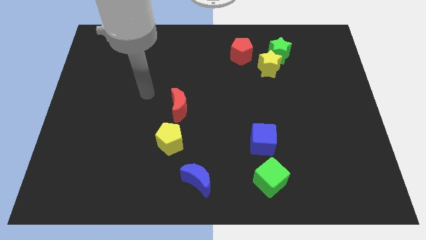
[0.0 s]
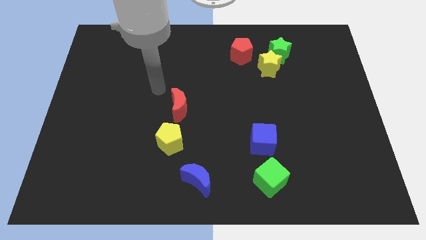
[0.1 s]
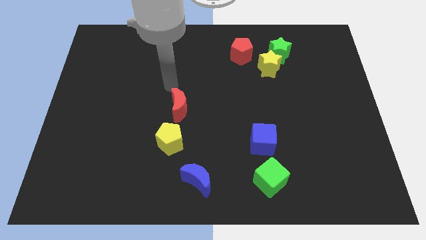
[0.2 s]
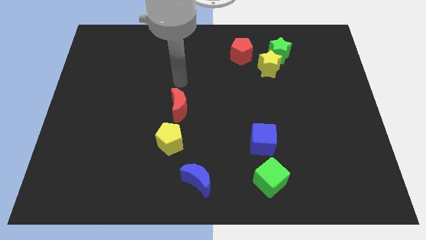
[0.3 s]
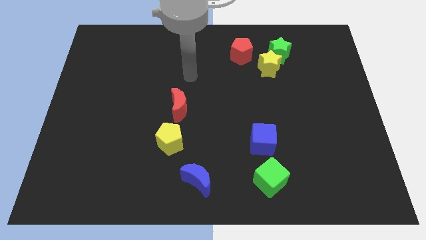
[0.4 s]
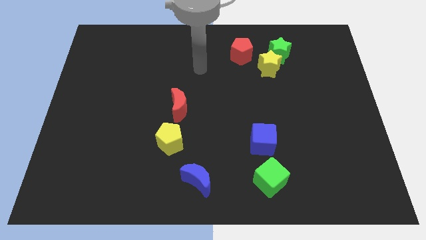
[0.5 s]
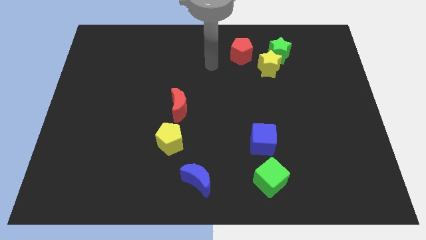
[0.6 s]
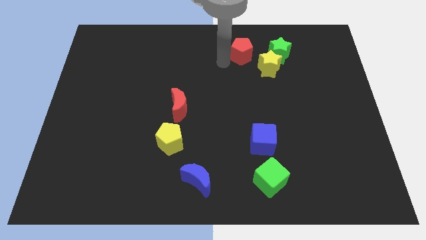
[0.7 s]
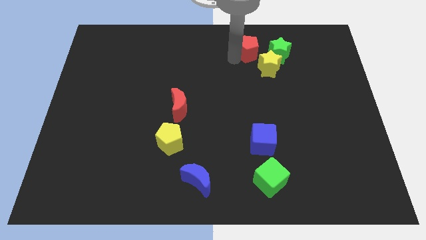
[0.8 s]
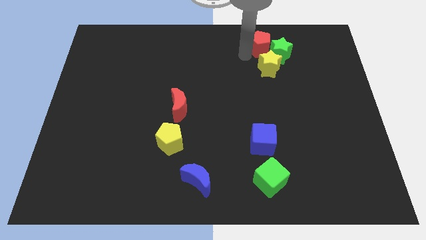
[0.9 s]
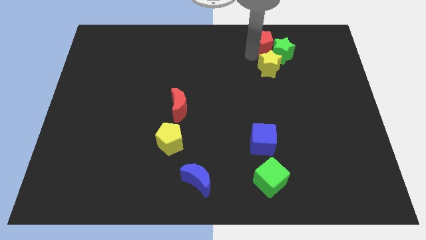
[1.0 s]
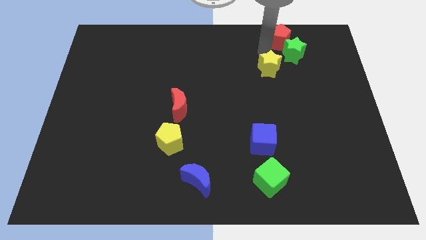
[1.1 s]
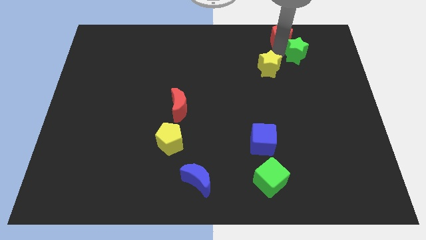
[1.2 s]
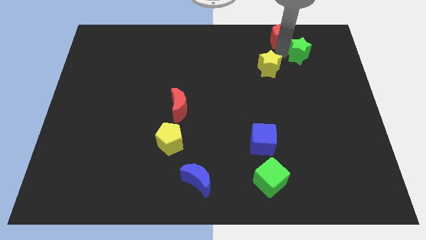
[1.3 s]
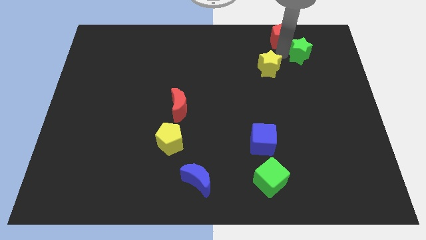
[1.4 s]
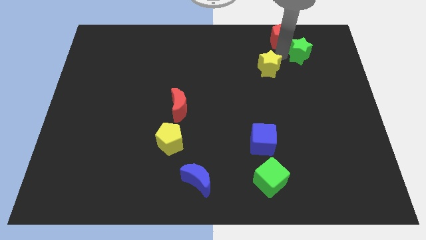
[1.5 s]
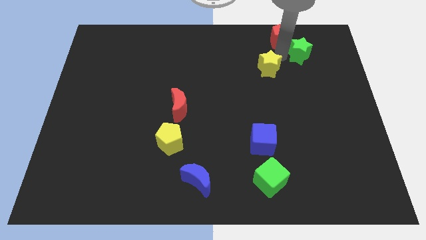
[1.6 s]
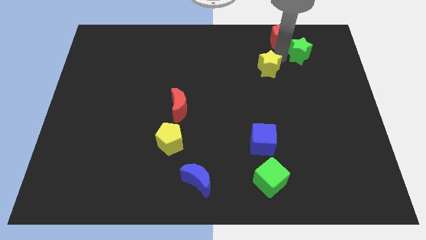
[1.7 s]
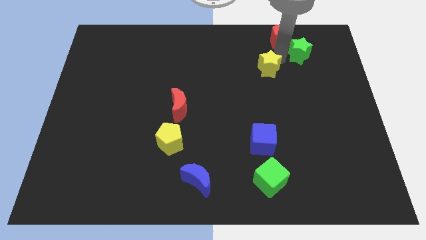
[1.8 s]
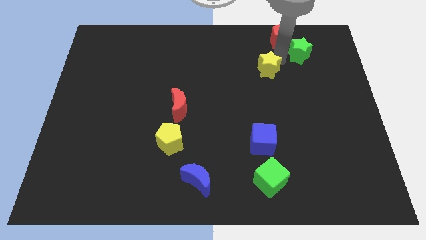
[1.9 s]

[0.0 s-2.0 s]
move the yellow star away from the green star and red pentagon

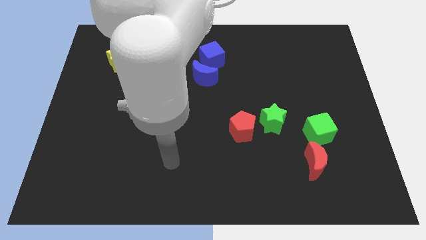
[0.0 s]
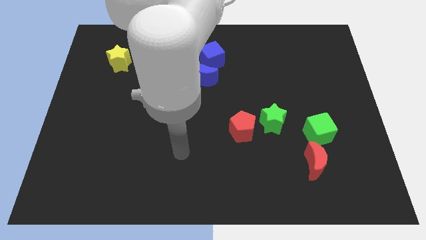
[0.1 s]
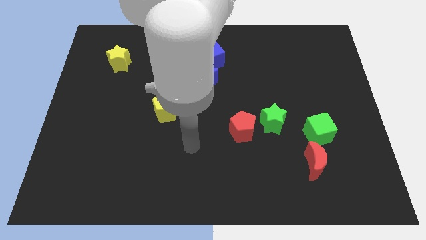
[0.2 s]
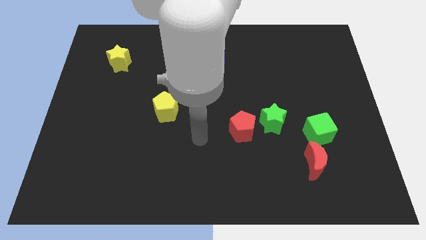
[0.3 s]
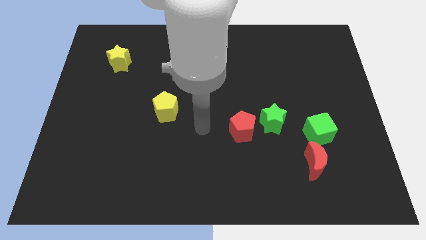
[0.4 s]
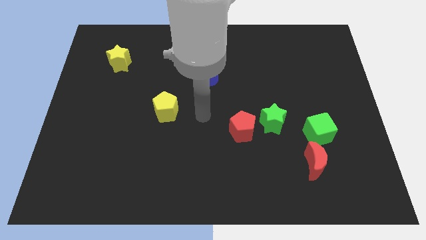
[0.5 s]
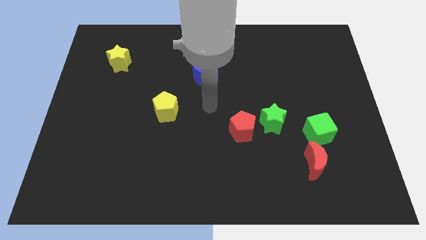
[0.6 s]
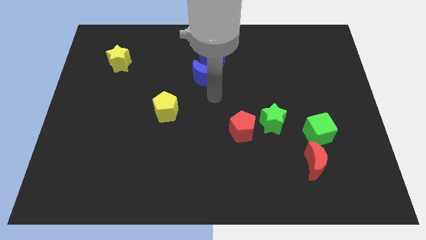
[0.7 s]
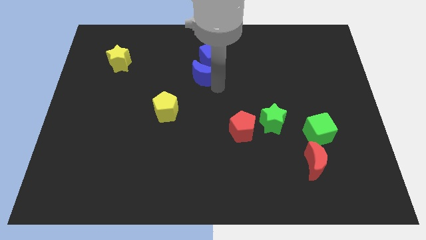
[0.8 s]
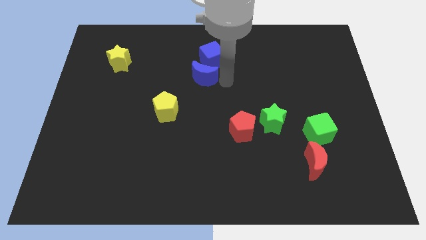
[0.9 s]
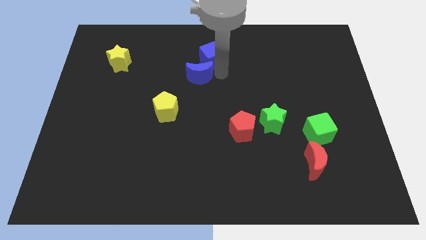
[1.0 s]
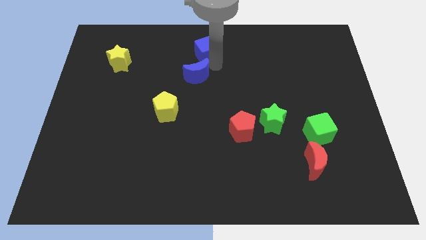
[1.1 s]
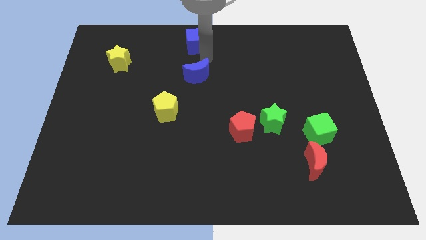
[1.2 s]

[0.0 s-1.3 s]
separate the blue moon from the blue cube

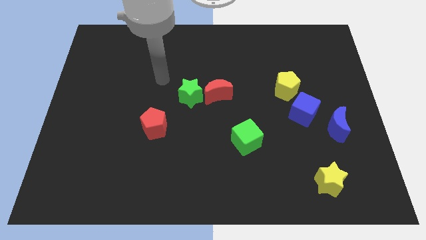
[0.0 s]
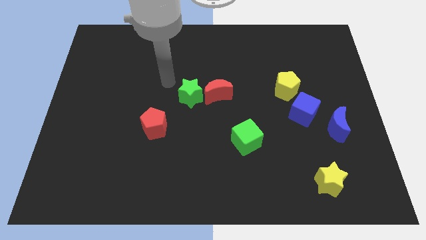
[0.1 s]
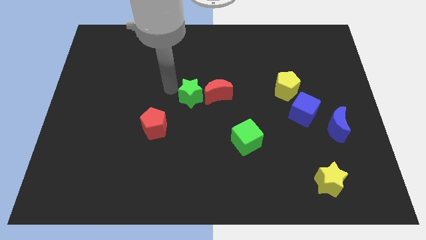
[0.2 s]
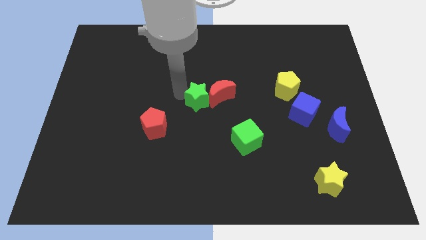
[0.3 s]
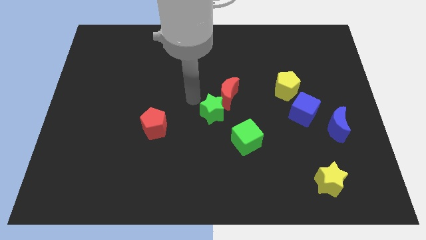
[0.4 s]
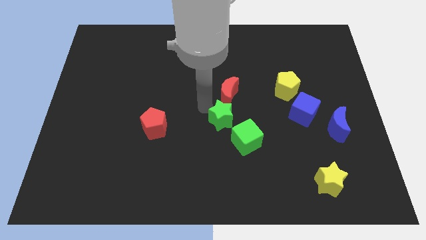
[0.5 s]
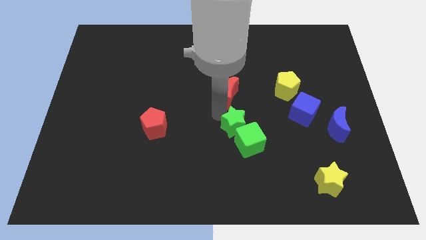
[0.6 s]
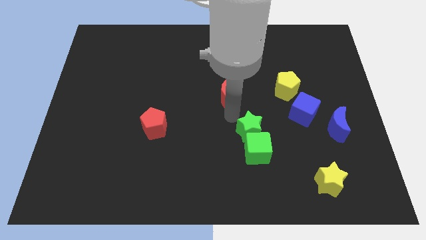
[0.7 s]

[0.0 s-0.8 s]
separate the red moon from the green star

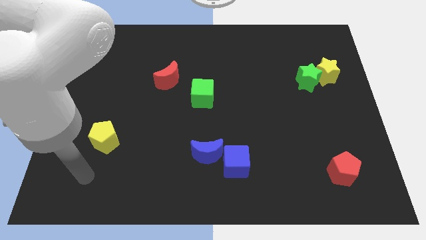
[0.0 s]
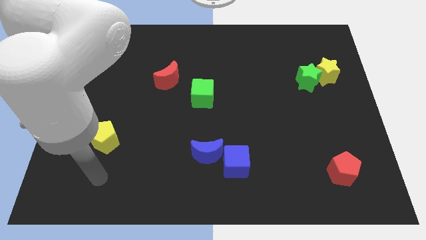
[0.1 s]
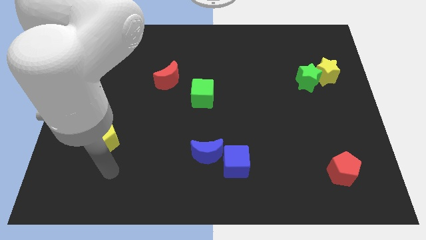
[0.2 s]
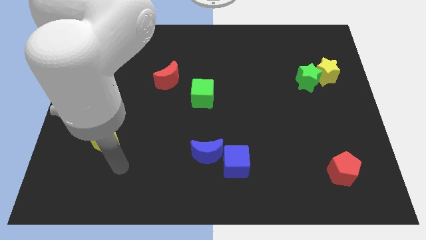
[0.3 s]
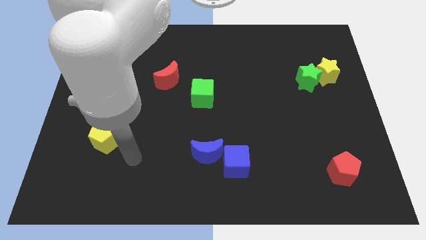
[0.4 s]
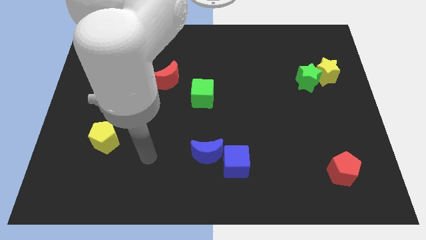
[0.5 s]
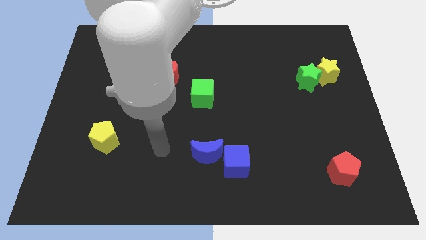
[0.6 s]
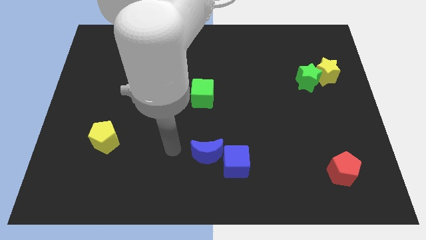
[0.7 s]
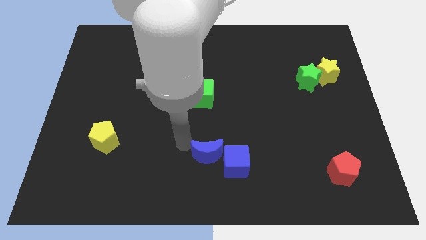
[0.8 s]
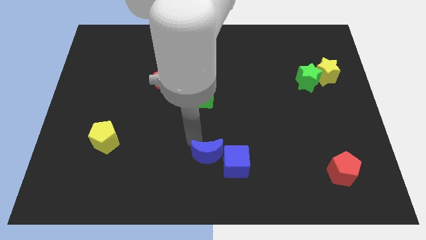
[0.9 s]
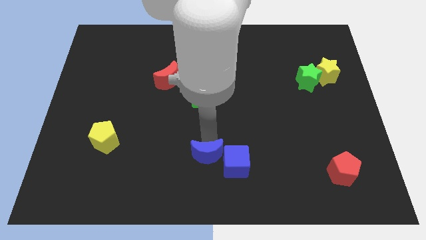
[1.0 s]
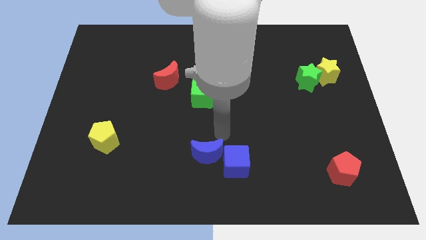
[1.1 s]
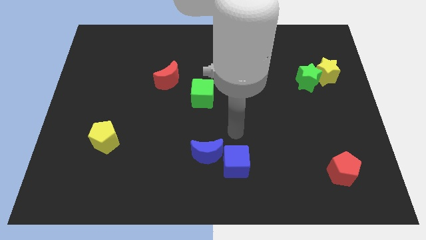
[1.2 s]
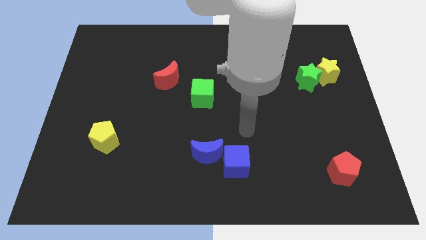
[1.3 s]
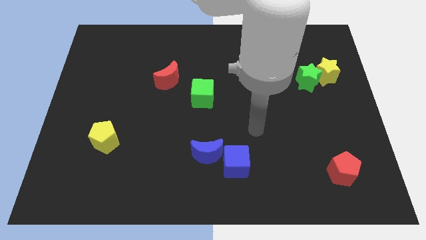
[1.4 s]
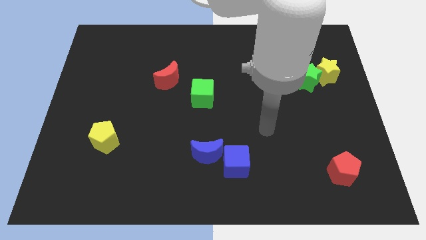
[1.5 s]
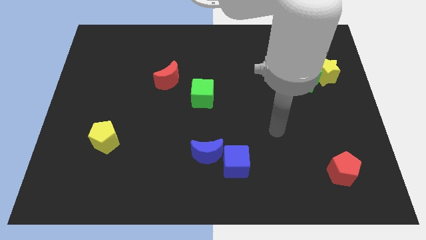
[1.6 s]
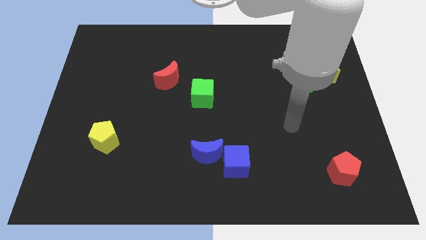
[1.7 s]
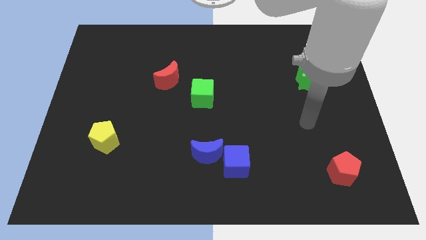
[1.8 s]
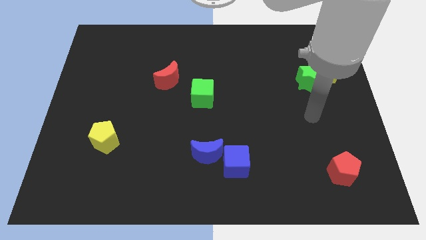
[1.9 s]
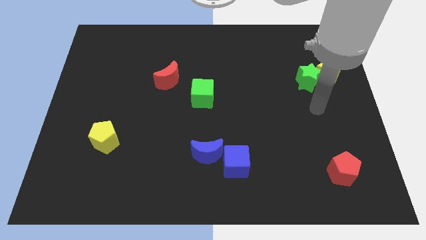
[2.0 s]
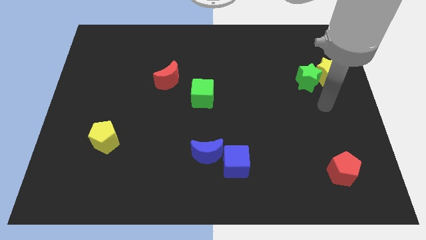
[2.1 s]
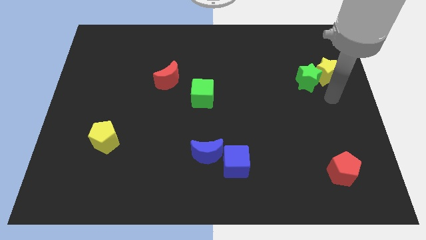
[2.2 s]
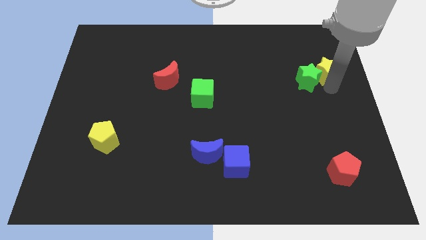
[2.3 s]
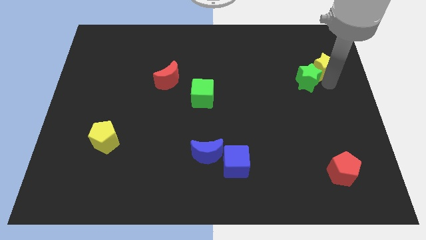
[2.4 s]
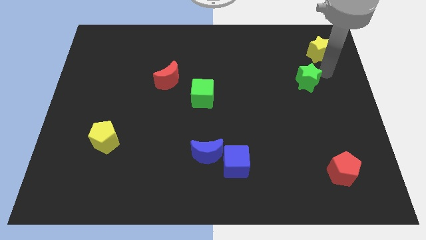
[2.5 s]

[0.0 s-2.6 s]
separate the green star from the yellow star

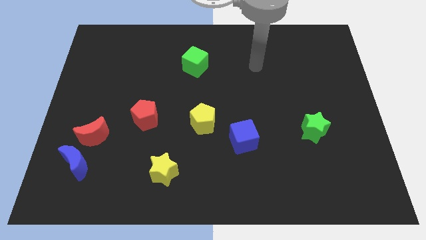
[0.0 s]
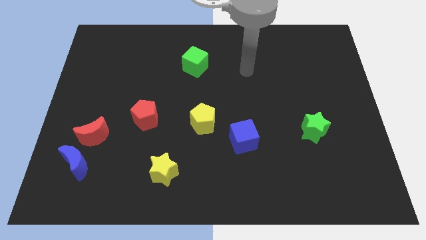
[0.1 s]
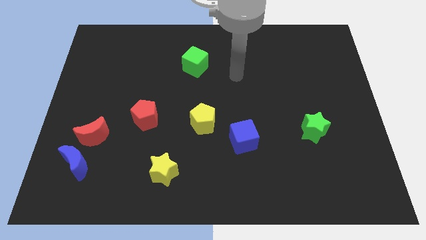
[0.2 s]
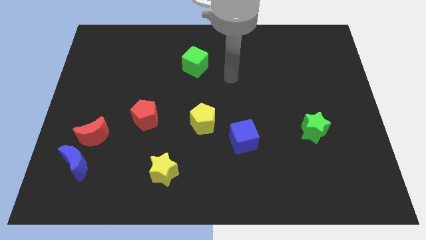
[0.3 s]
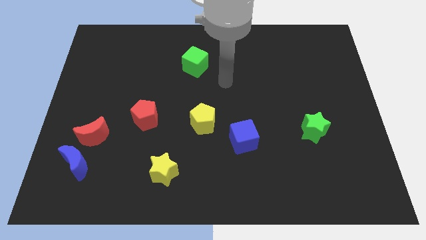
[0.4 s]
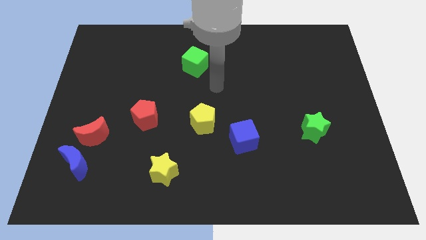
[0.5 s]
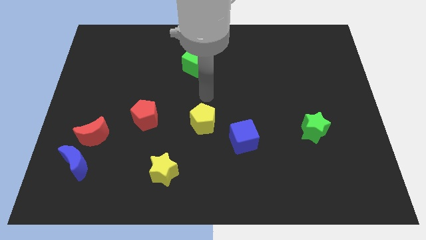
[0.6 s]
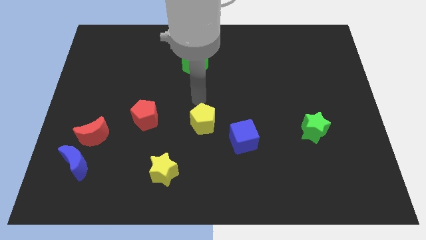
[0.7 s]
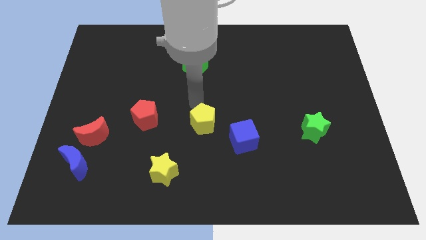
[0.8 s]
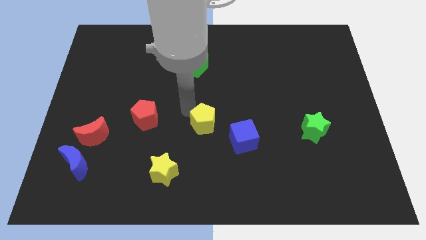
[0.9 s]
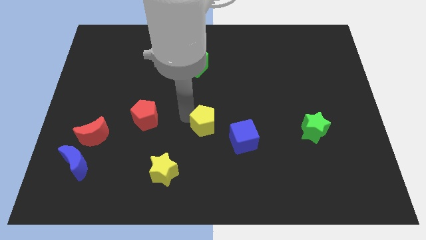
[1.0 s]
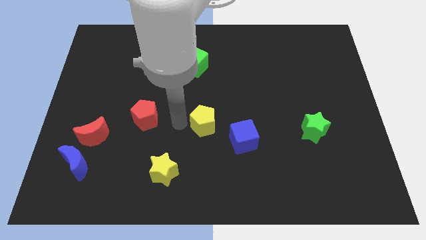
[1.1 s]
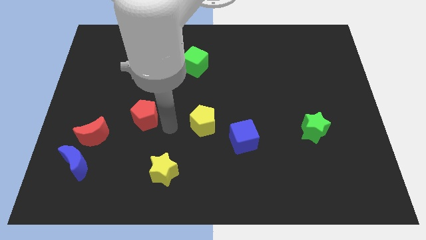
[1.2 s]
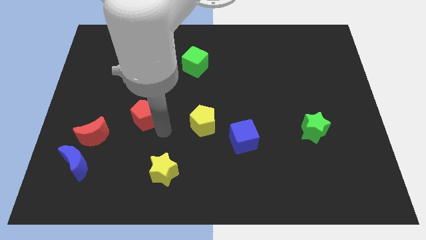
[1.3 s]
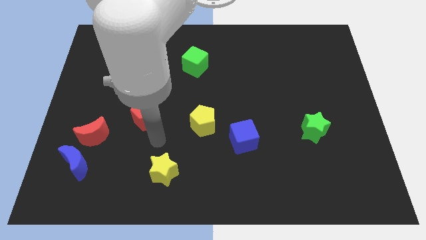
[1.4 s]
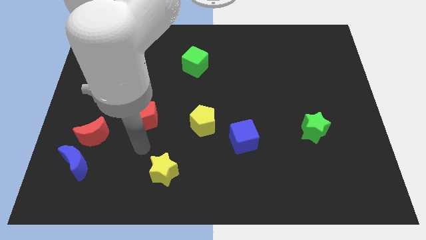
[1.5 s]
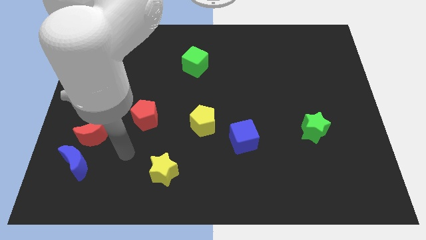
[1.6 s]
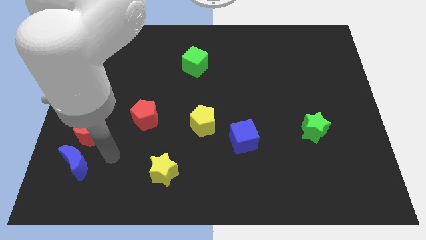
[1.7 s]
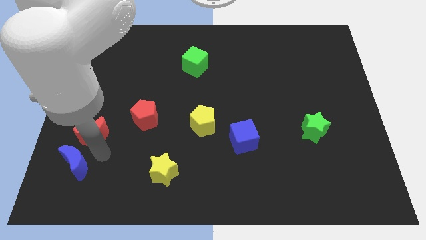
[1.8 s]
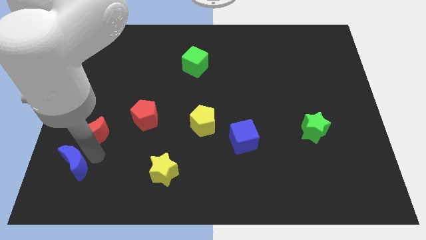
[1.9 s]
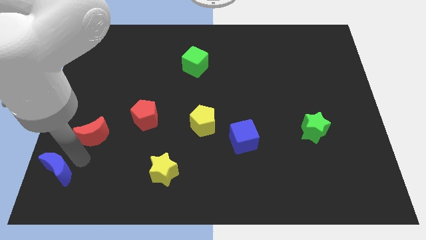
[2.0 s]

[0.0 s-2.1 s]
separate the red moon from the blue moon

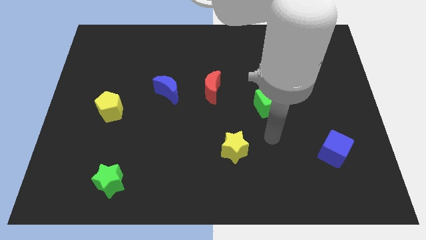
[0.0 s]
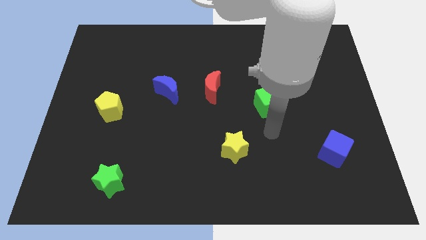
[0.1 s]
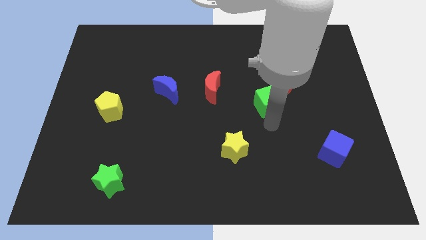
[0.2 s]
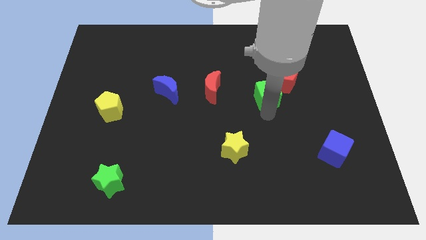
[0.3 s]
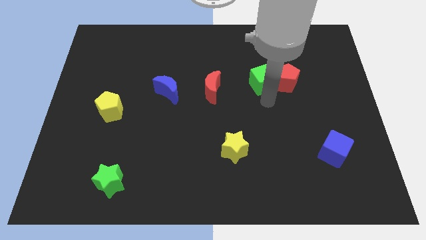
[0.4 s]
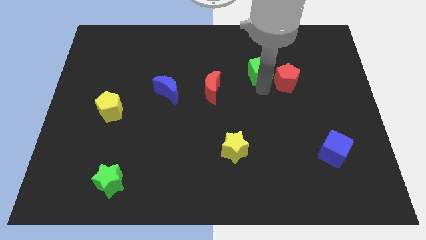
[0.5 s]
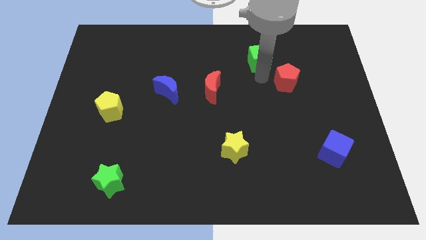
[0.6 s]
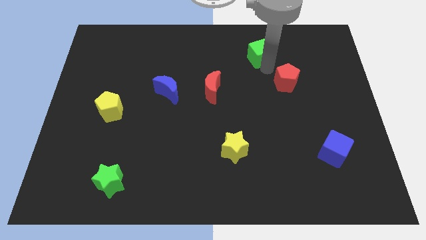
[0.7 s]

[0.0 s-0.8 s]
move the red pentagon away from the green cube
